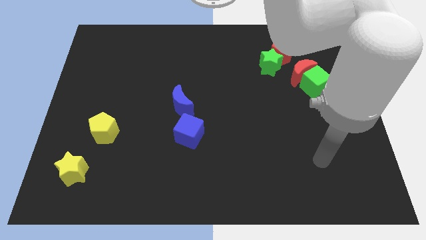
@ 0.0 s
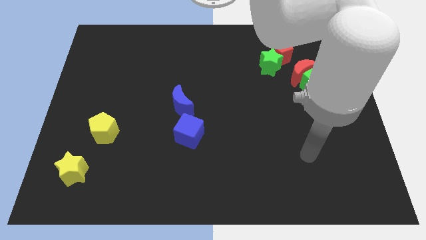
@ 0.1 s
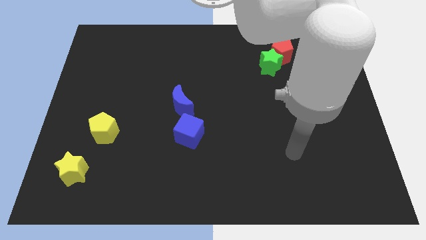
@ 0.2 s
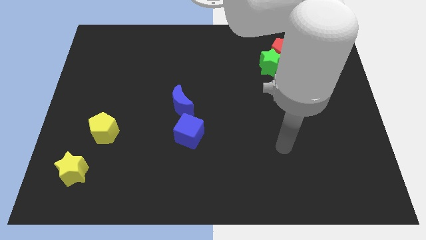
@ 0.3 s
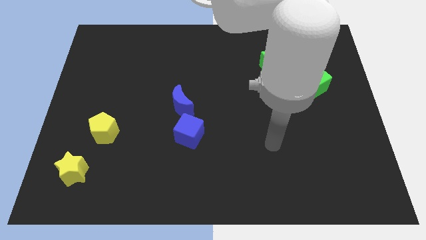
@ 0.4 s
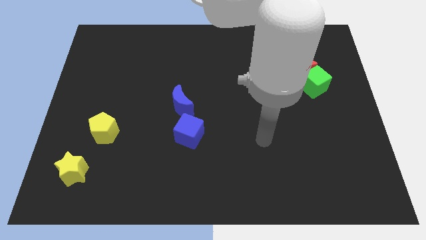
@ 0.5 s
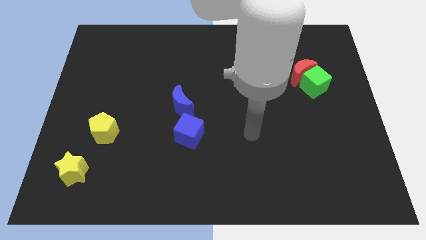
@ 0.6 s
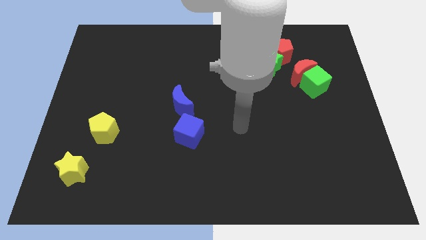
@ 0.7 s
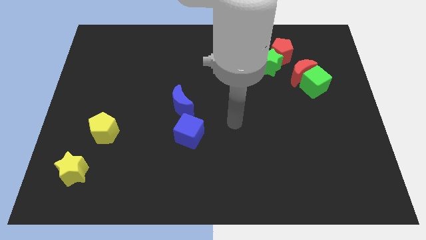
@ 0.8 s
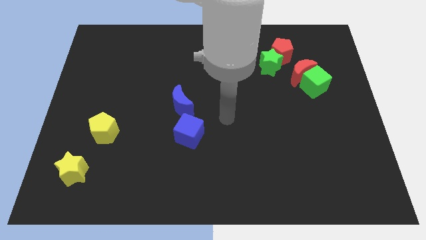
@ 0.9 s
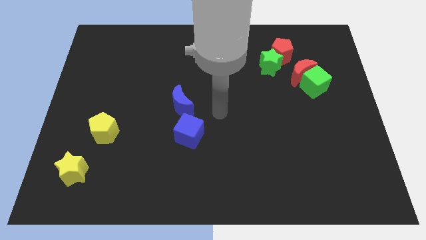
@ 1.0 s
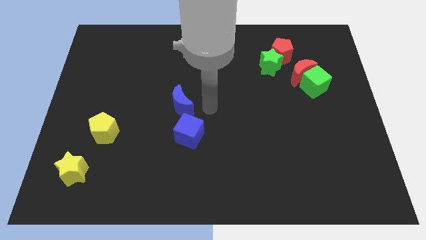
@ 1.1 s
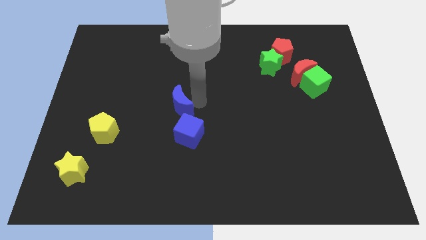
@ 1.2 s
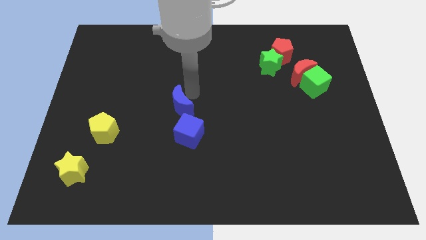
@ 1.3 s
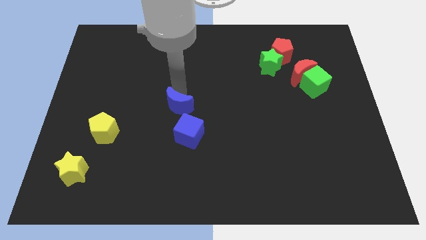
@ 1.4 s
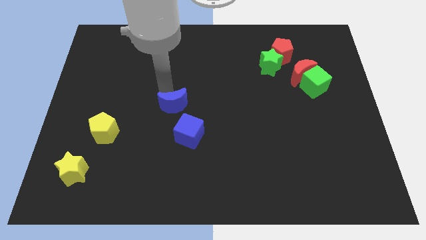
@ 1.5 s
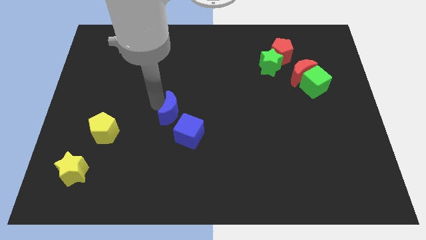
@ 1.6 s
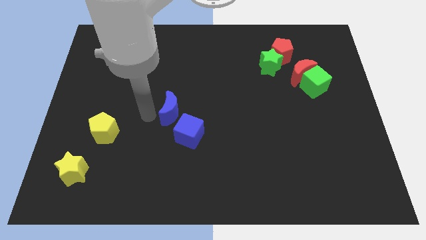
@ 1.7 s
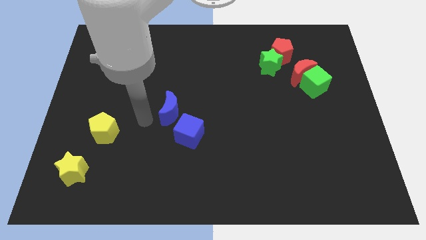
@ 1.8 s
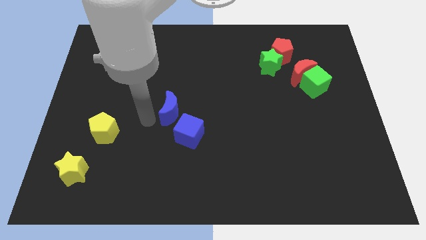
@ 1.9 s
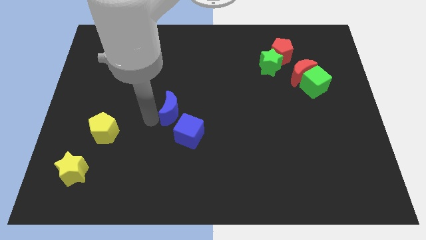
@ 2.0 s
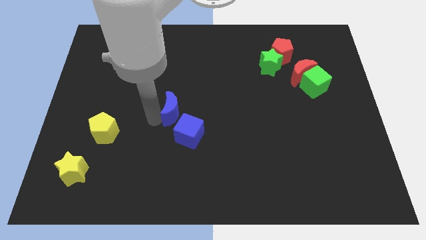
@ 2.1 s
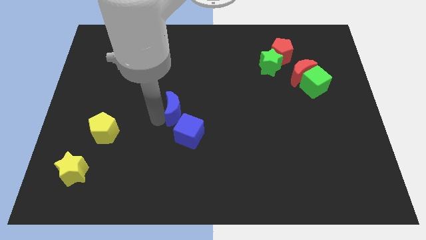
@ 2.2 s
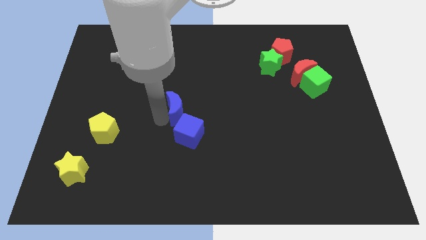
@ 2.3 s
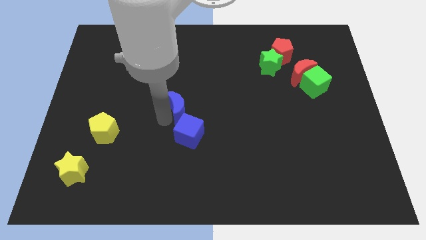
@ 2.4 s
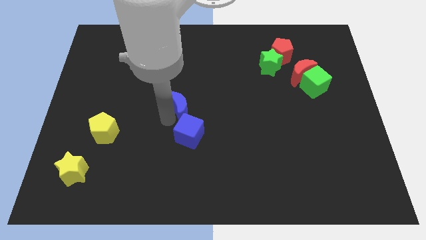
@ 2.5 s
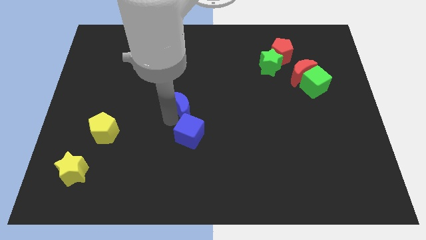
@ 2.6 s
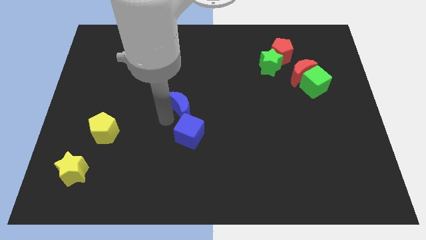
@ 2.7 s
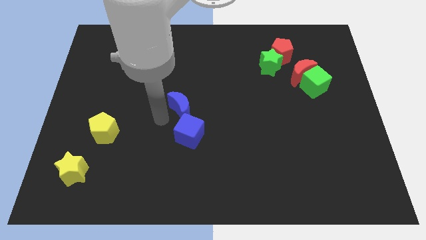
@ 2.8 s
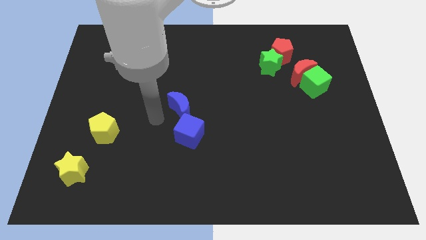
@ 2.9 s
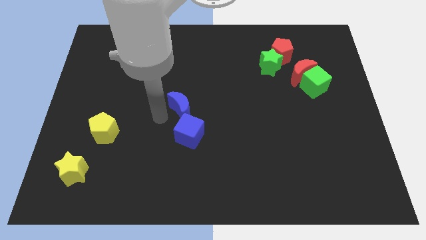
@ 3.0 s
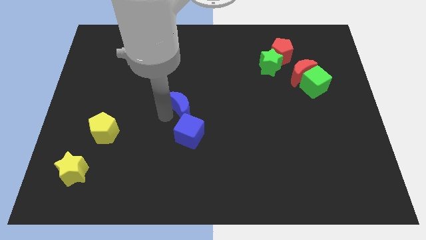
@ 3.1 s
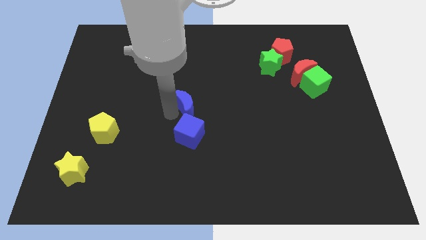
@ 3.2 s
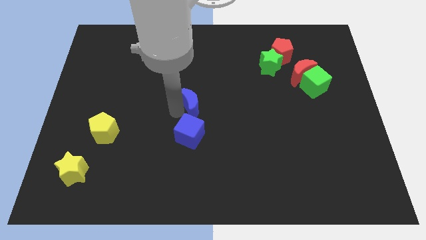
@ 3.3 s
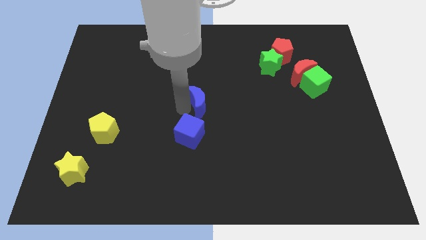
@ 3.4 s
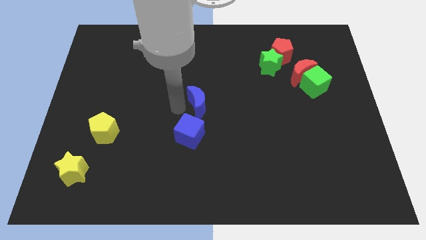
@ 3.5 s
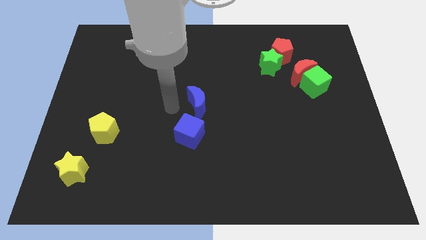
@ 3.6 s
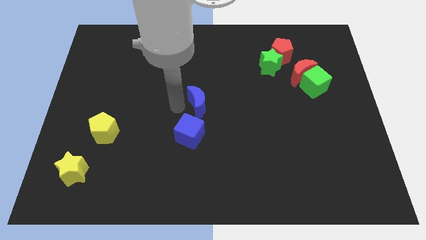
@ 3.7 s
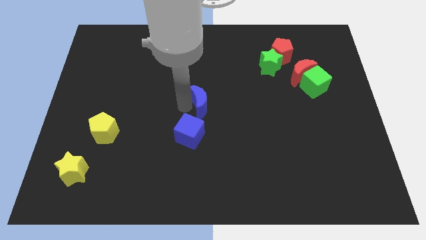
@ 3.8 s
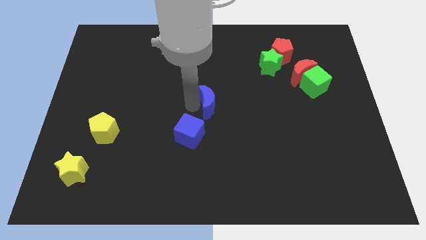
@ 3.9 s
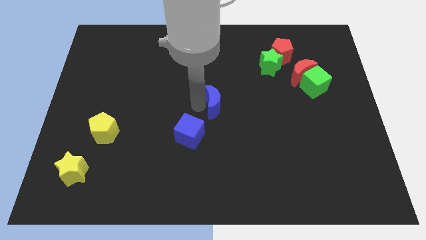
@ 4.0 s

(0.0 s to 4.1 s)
move the blue moon slightly right

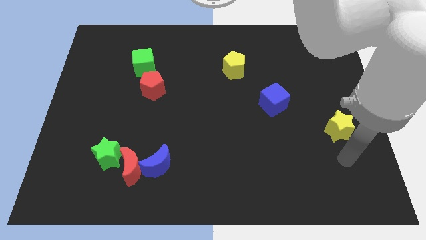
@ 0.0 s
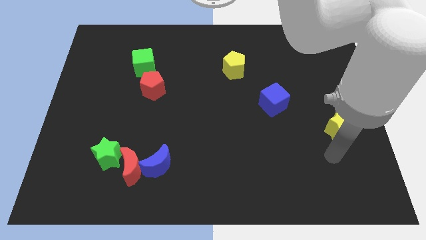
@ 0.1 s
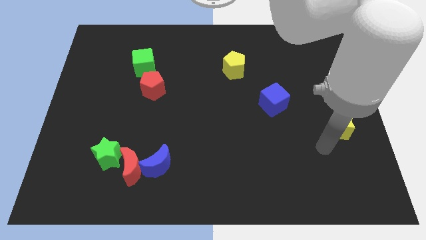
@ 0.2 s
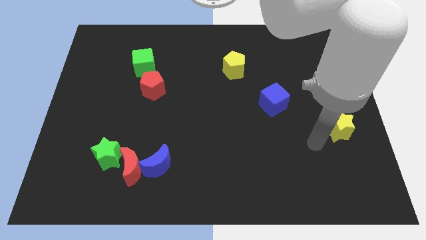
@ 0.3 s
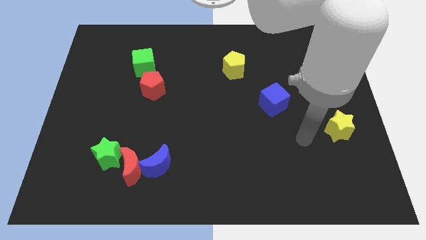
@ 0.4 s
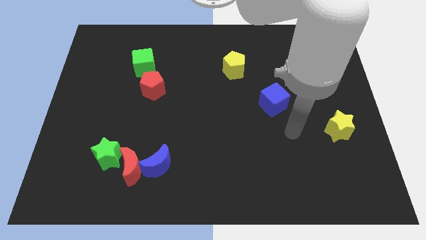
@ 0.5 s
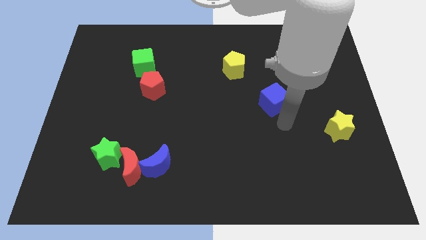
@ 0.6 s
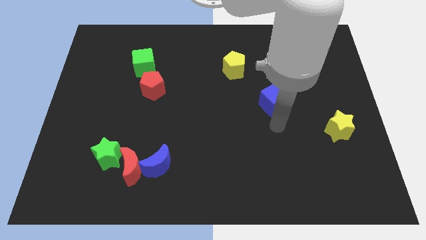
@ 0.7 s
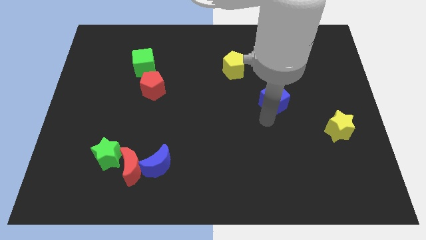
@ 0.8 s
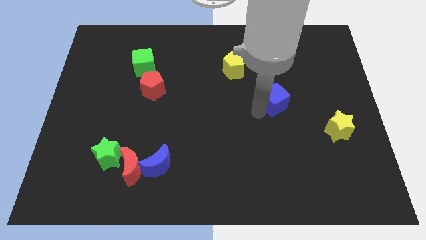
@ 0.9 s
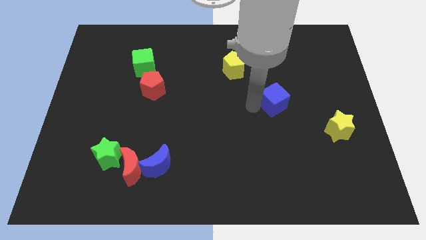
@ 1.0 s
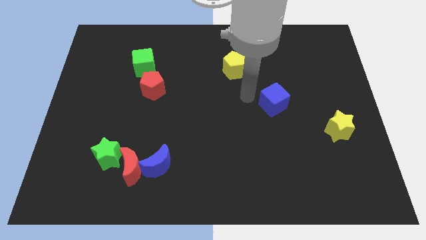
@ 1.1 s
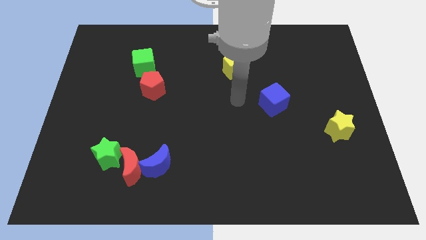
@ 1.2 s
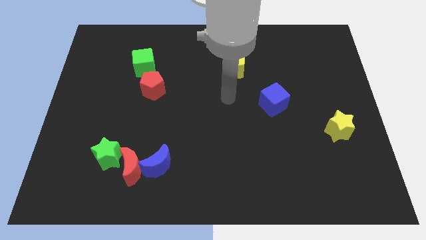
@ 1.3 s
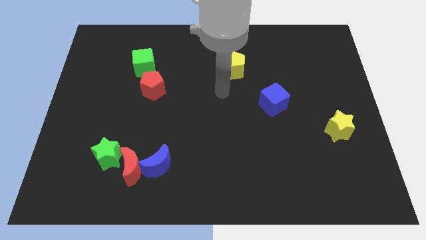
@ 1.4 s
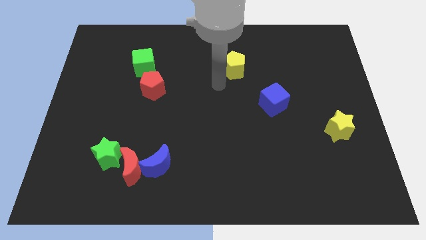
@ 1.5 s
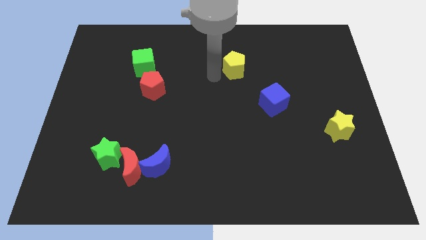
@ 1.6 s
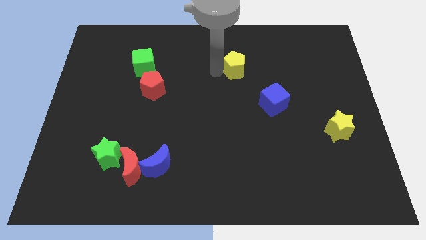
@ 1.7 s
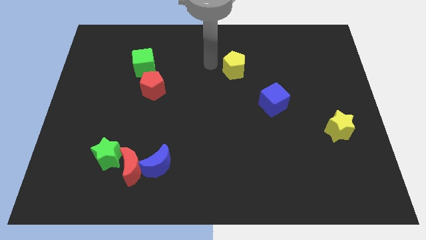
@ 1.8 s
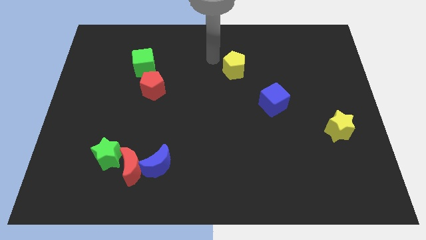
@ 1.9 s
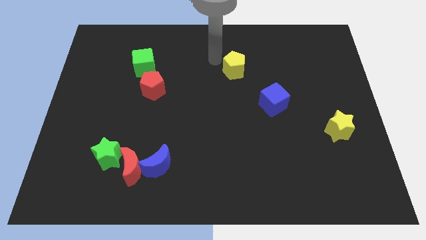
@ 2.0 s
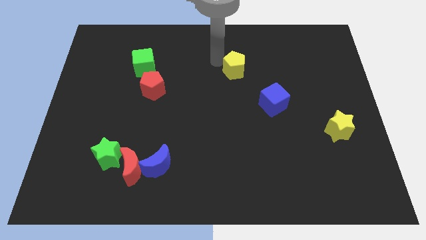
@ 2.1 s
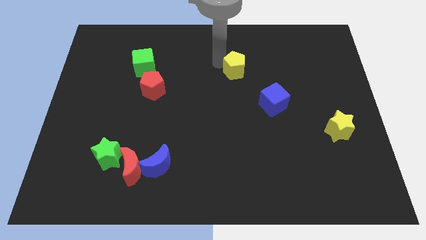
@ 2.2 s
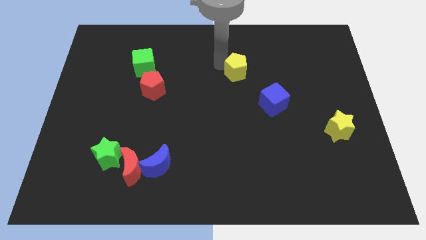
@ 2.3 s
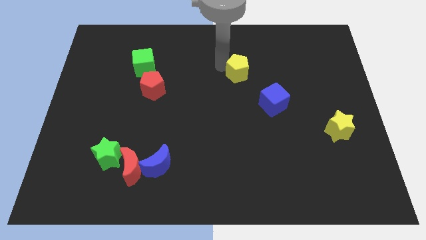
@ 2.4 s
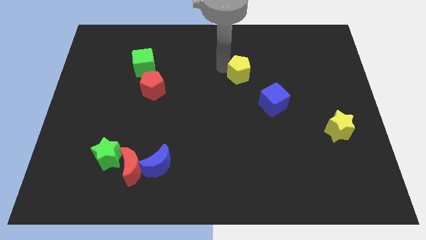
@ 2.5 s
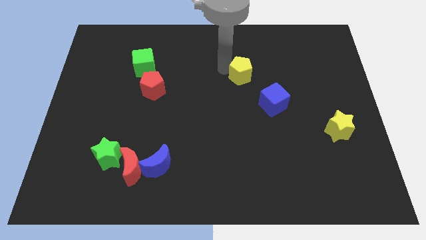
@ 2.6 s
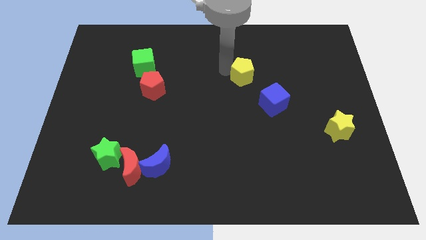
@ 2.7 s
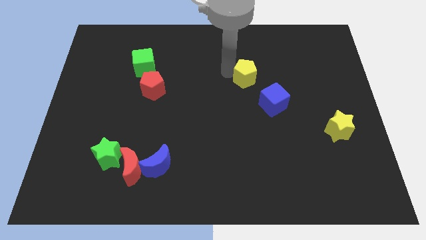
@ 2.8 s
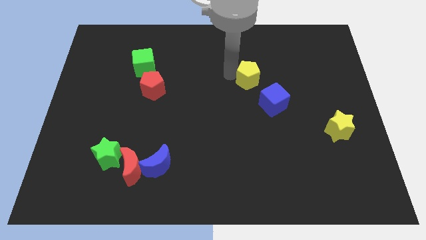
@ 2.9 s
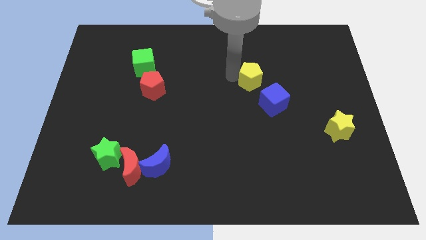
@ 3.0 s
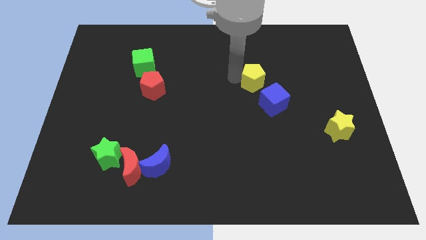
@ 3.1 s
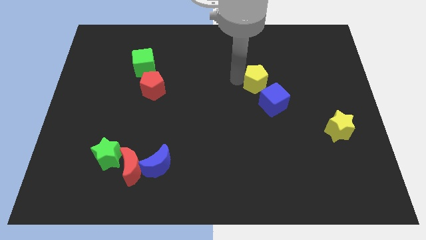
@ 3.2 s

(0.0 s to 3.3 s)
slightly slide the yellow pentagon downwards and right
